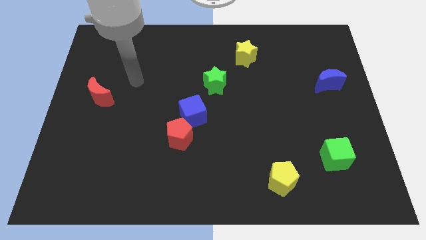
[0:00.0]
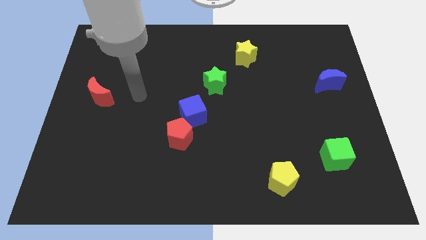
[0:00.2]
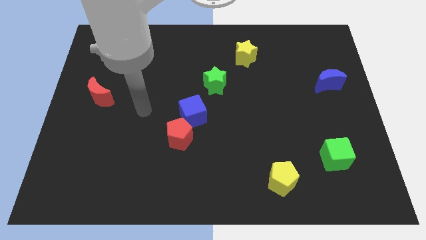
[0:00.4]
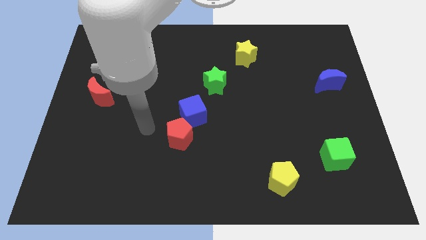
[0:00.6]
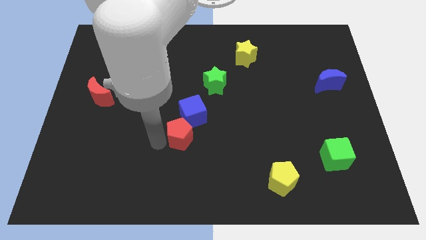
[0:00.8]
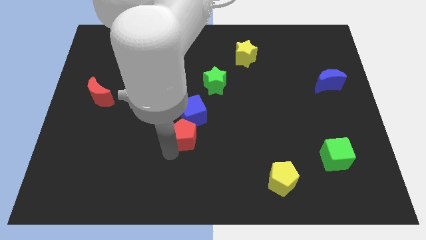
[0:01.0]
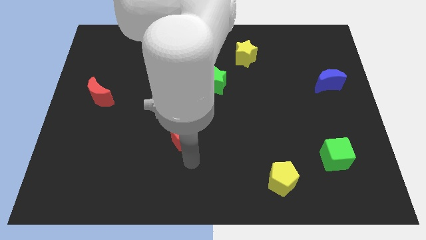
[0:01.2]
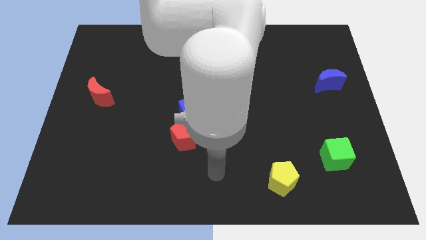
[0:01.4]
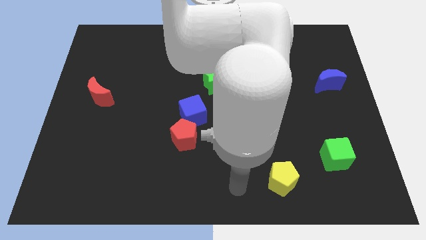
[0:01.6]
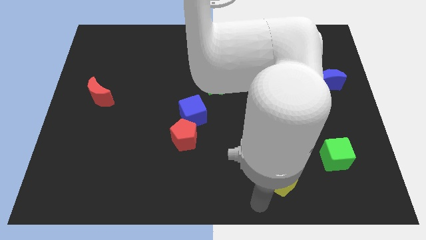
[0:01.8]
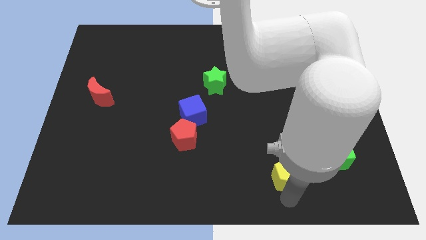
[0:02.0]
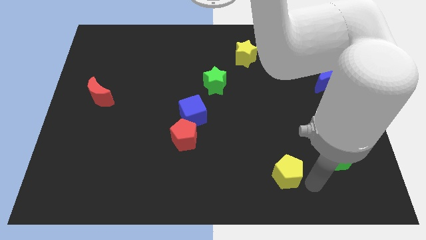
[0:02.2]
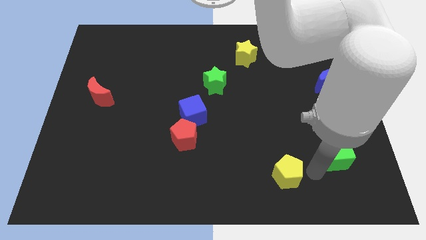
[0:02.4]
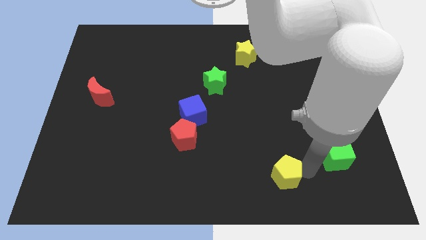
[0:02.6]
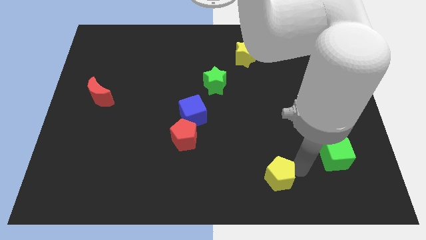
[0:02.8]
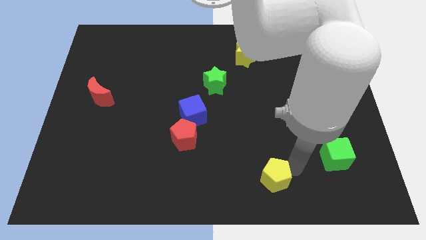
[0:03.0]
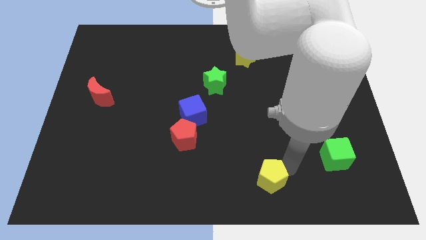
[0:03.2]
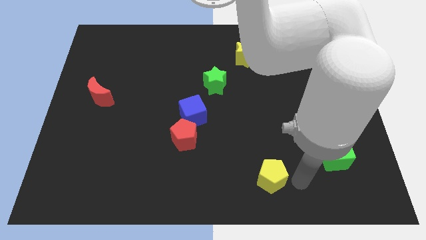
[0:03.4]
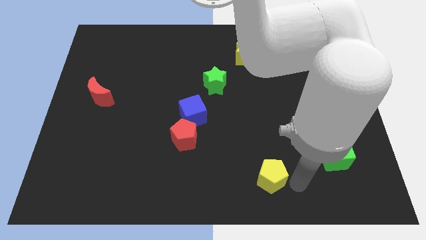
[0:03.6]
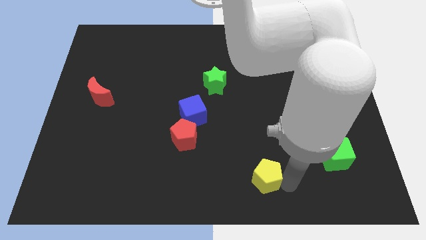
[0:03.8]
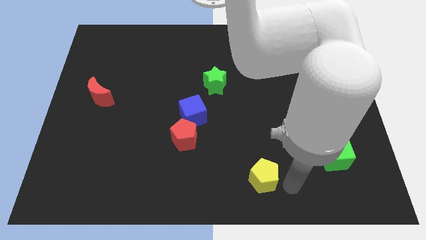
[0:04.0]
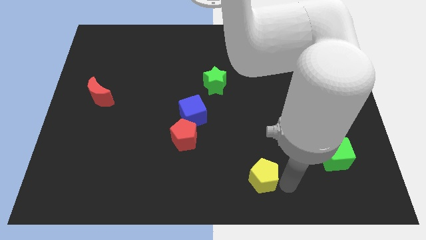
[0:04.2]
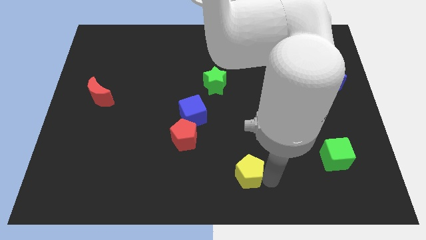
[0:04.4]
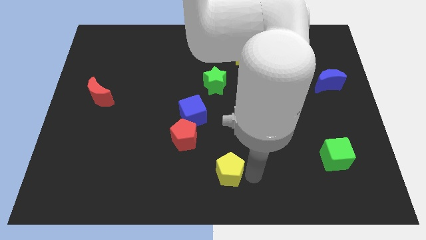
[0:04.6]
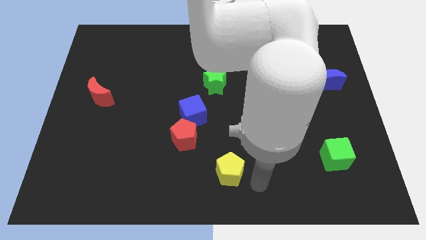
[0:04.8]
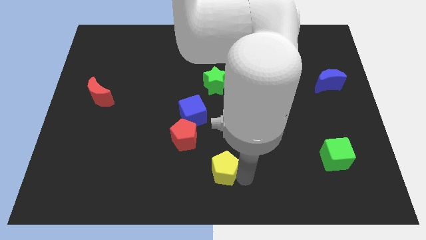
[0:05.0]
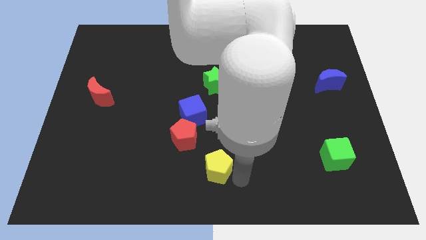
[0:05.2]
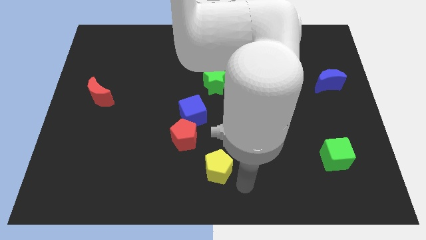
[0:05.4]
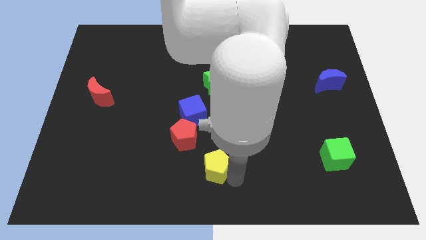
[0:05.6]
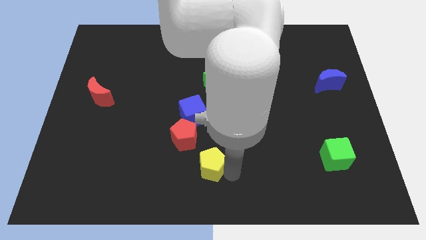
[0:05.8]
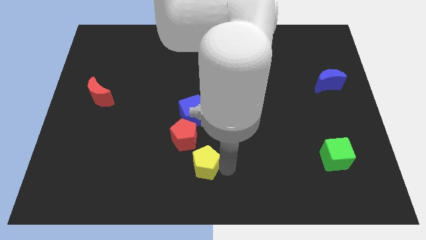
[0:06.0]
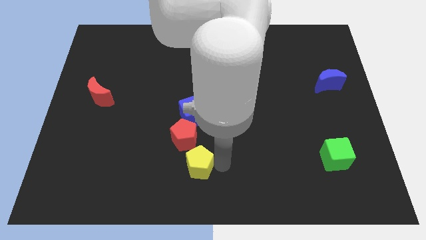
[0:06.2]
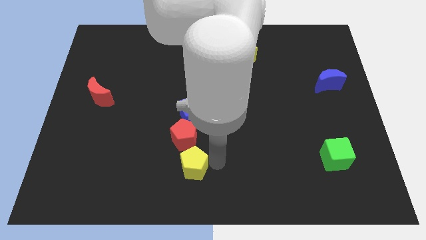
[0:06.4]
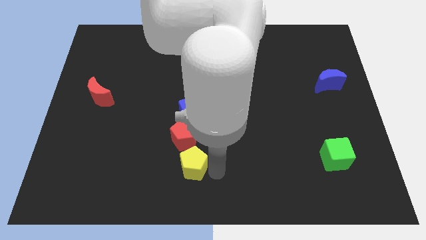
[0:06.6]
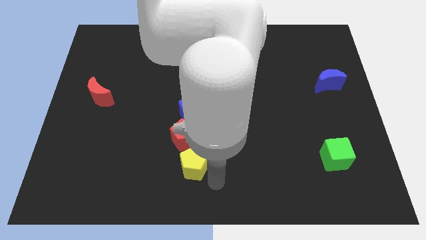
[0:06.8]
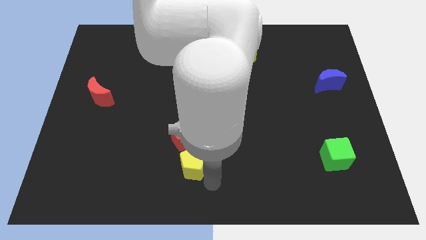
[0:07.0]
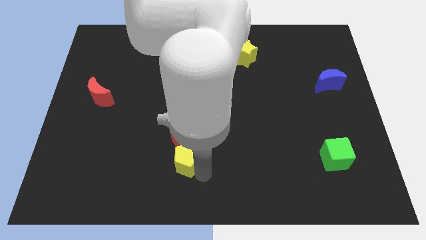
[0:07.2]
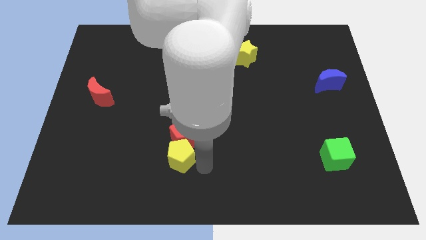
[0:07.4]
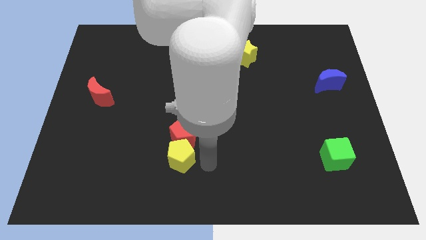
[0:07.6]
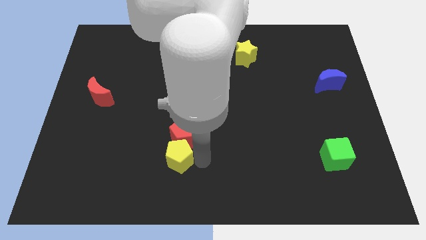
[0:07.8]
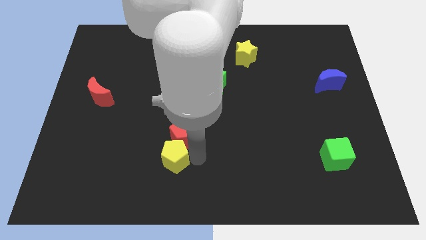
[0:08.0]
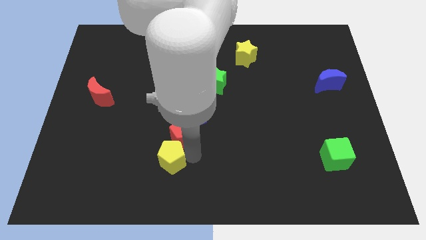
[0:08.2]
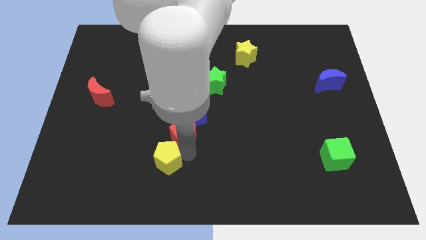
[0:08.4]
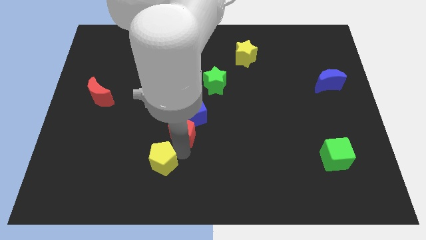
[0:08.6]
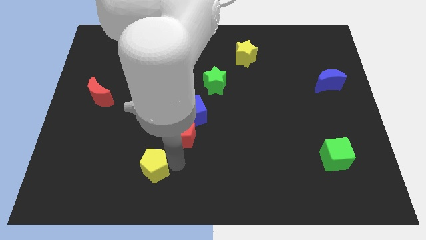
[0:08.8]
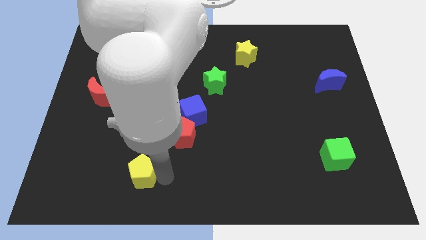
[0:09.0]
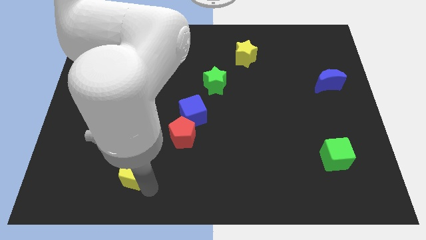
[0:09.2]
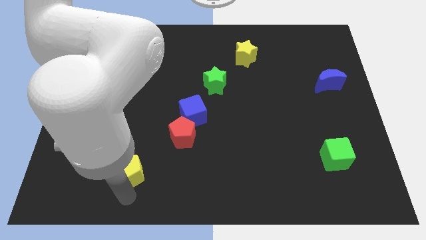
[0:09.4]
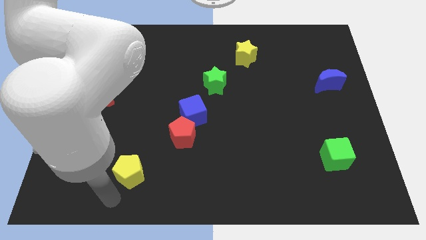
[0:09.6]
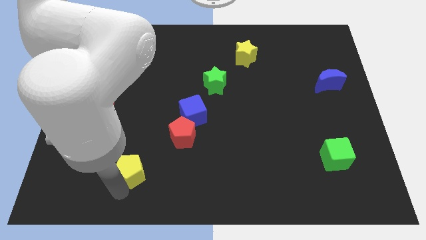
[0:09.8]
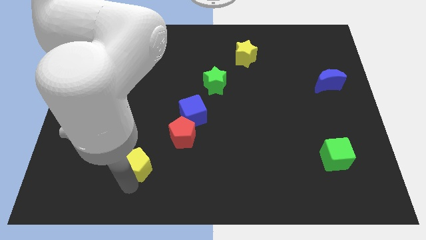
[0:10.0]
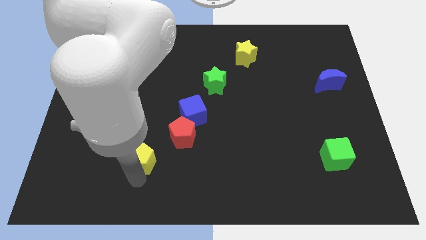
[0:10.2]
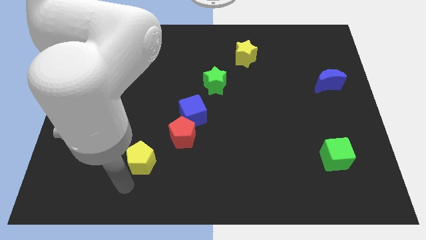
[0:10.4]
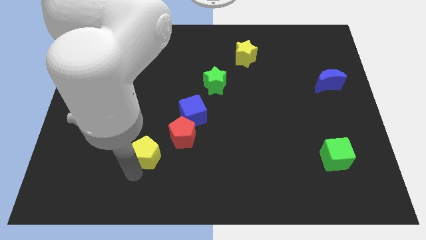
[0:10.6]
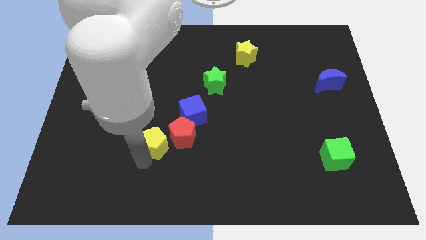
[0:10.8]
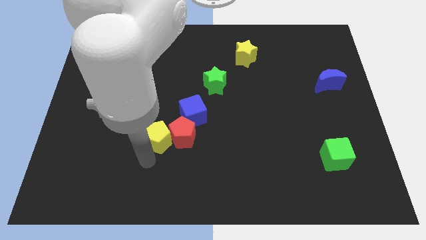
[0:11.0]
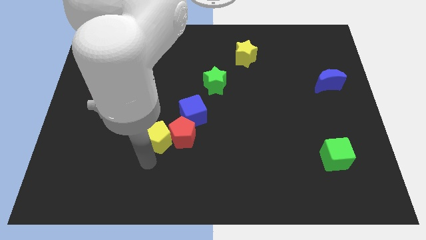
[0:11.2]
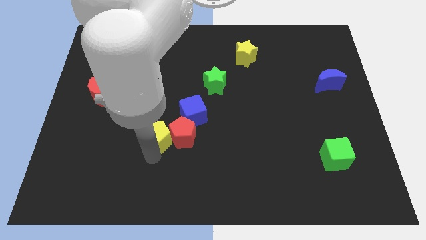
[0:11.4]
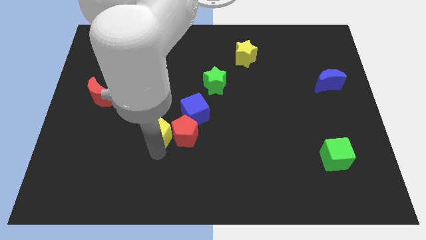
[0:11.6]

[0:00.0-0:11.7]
move the yellow pentagon up and then to the left

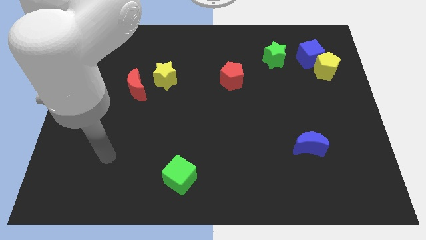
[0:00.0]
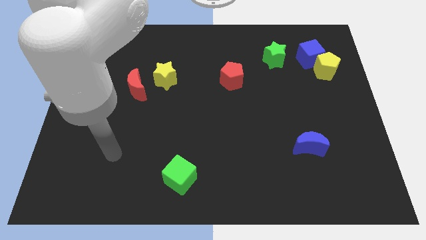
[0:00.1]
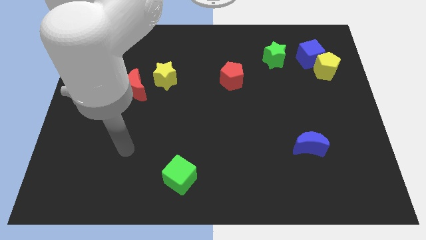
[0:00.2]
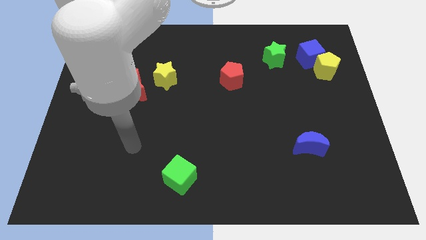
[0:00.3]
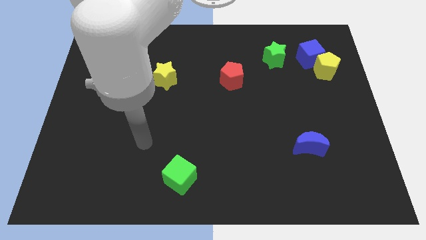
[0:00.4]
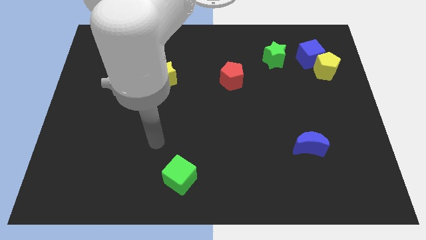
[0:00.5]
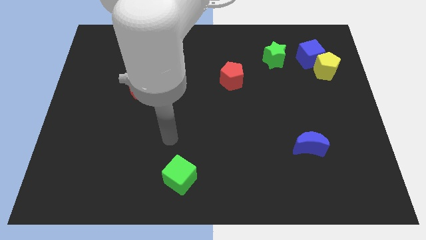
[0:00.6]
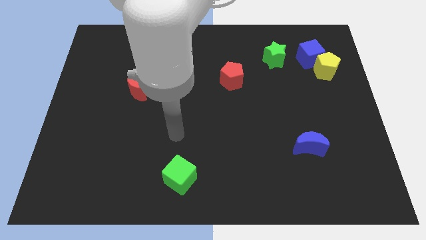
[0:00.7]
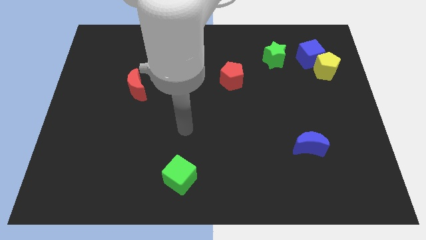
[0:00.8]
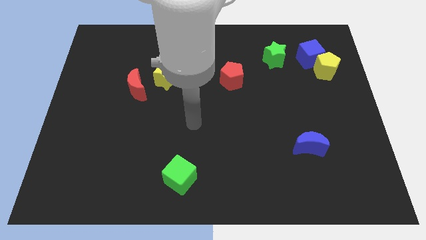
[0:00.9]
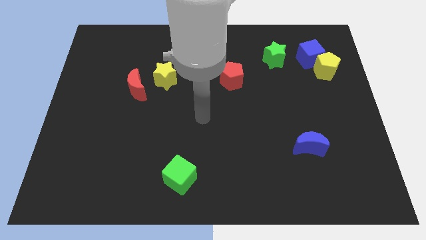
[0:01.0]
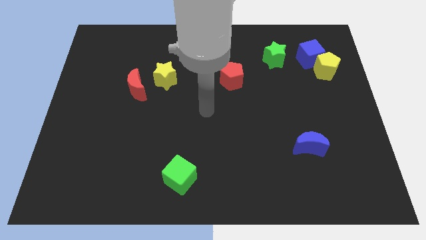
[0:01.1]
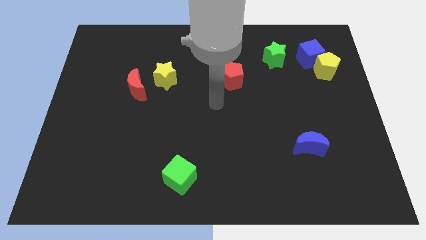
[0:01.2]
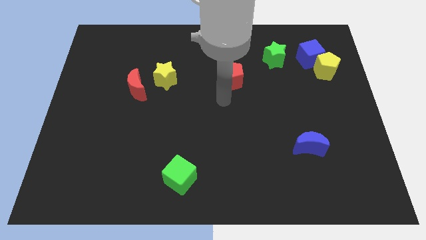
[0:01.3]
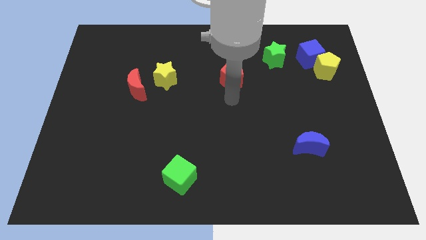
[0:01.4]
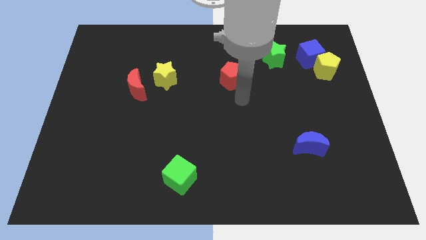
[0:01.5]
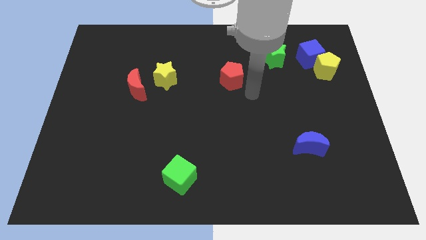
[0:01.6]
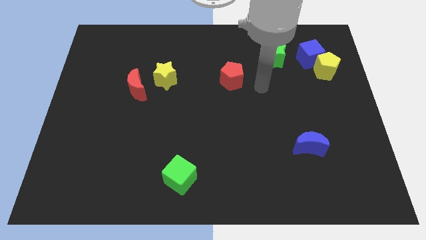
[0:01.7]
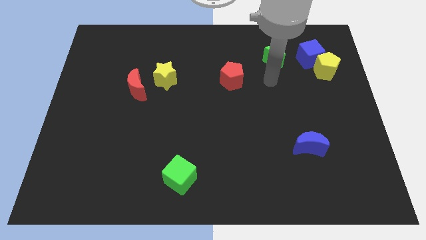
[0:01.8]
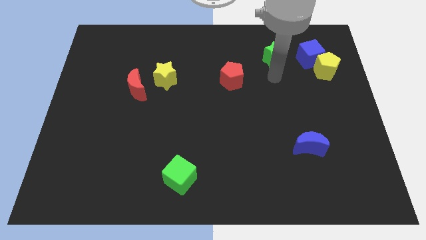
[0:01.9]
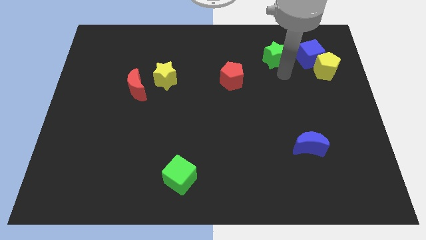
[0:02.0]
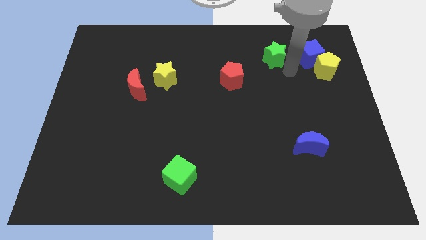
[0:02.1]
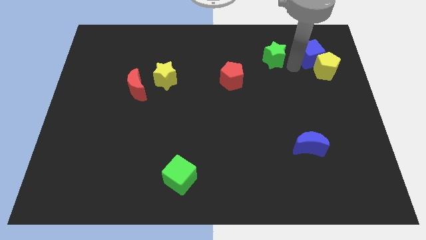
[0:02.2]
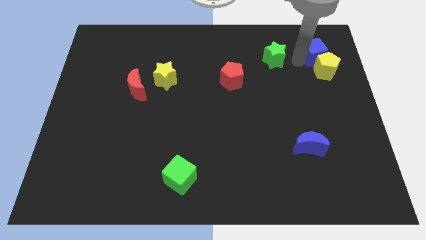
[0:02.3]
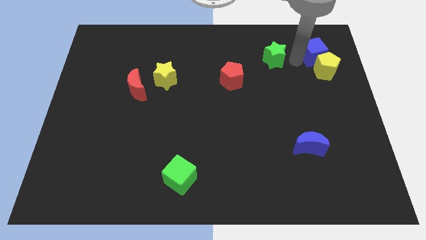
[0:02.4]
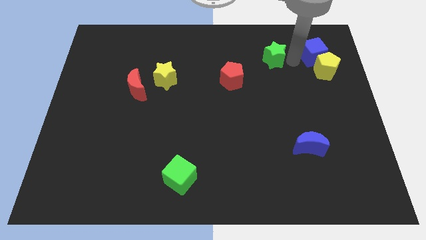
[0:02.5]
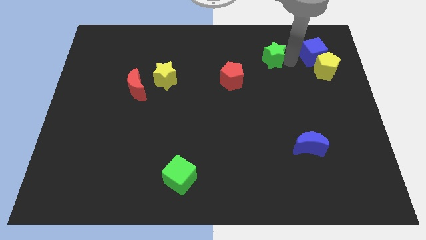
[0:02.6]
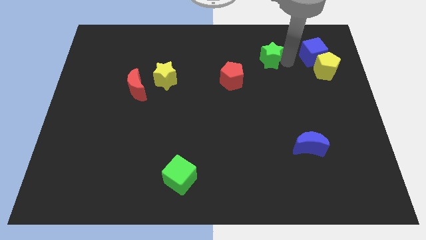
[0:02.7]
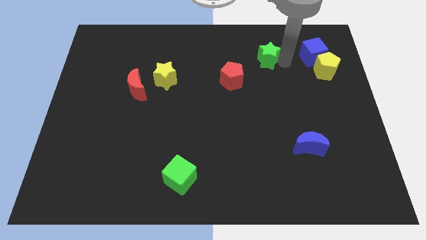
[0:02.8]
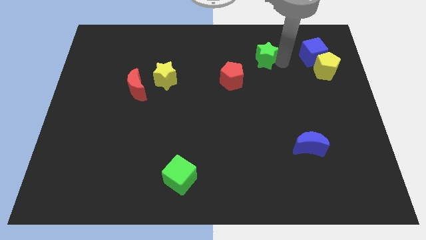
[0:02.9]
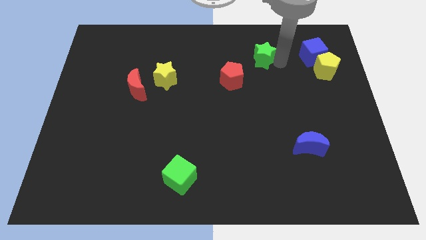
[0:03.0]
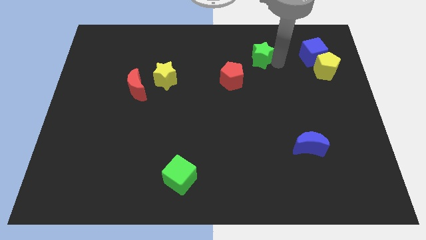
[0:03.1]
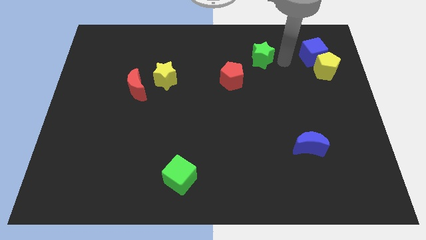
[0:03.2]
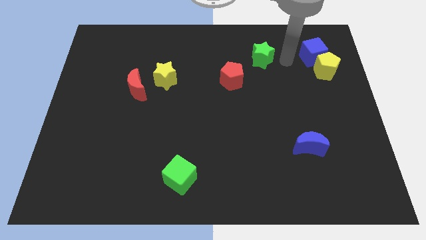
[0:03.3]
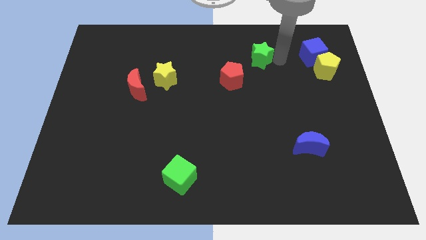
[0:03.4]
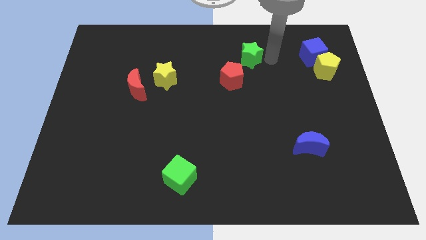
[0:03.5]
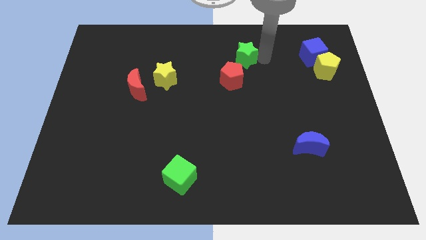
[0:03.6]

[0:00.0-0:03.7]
slide the green star left somewhat
